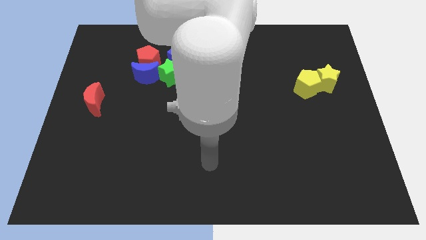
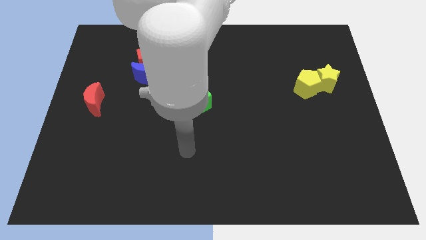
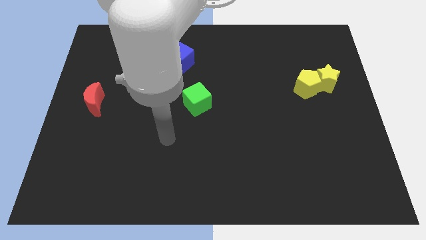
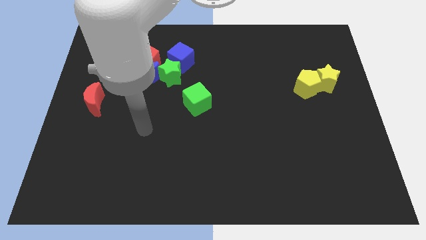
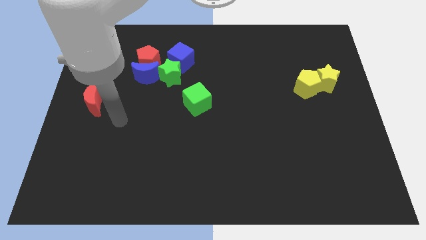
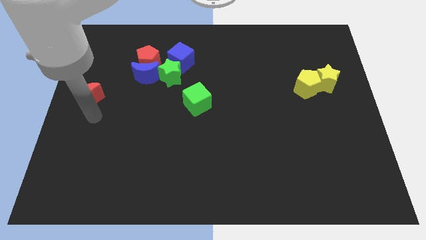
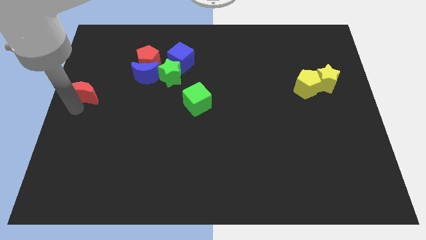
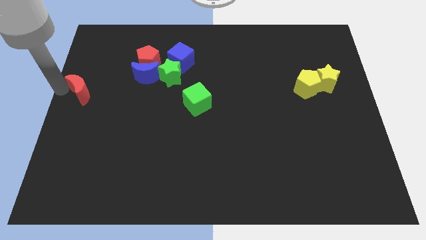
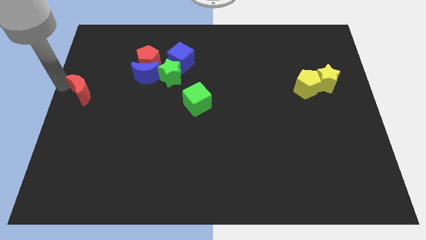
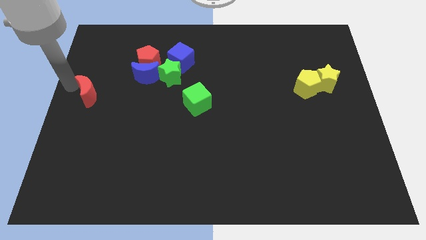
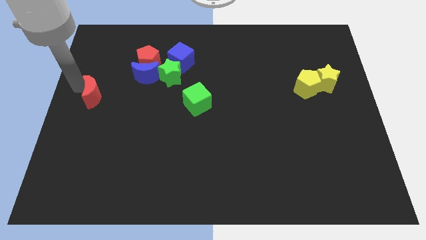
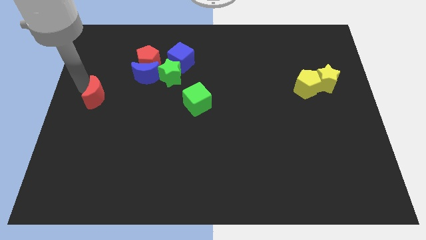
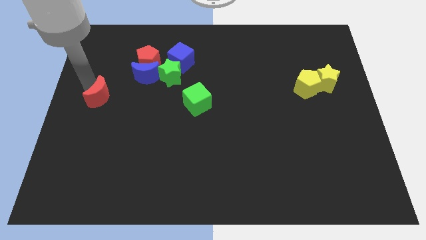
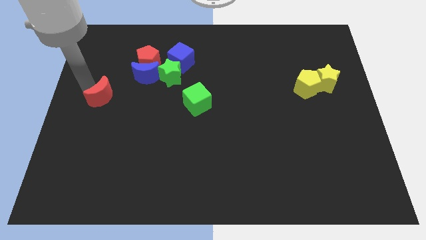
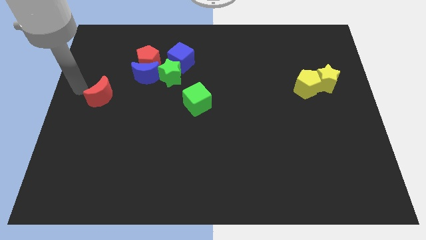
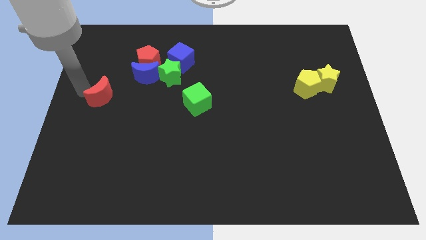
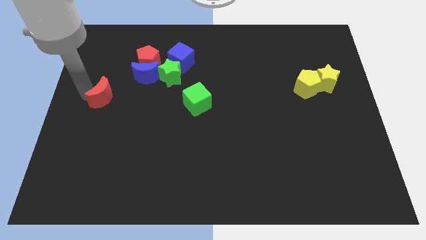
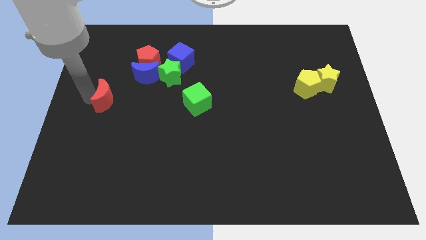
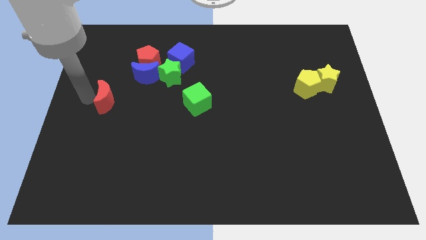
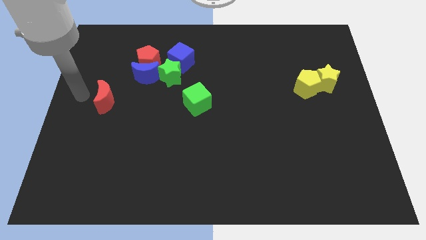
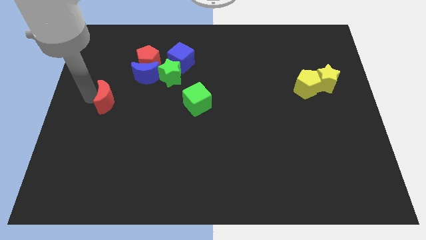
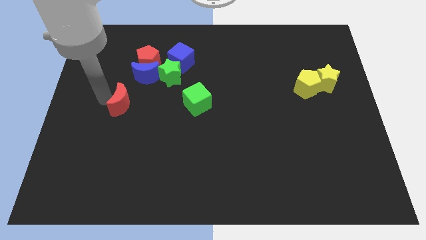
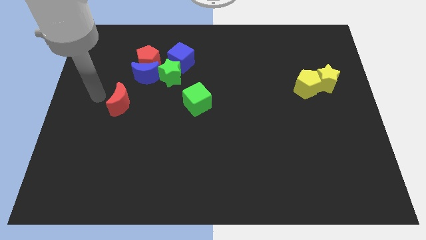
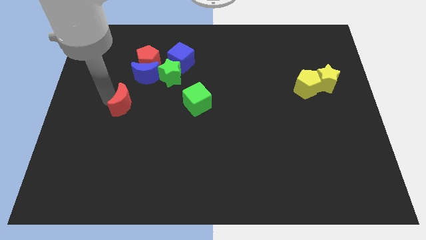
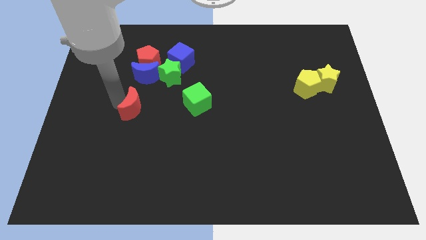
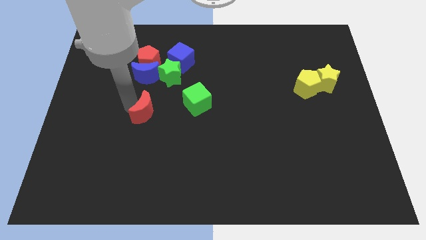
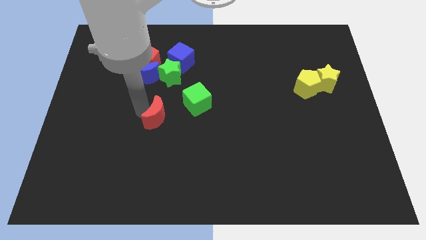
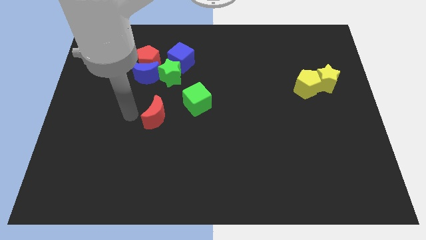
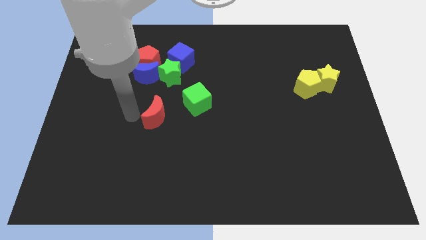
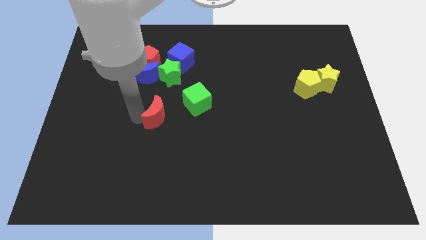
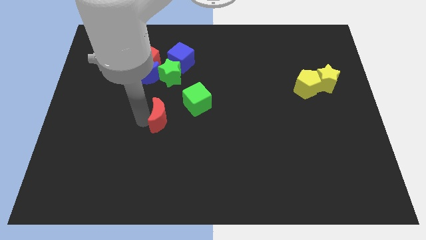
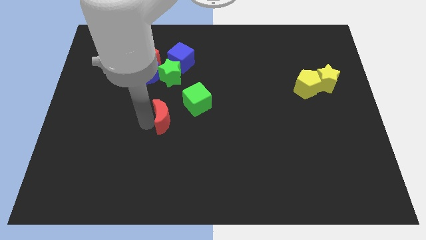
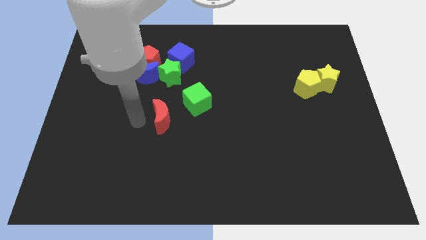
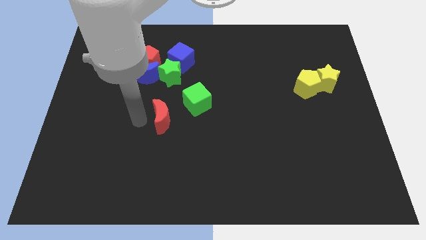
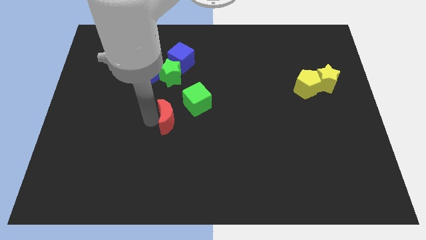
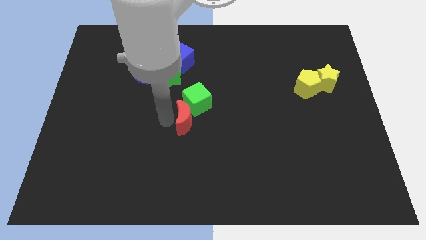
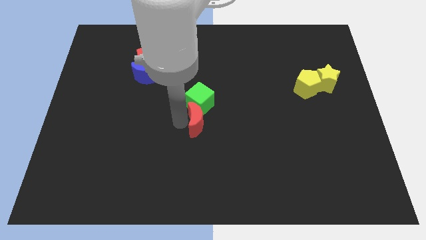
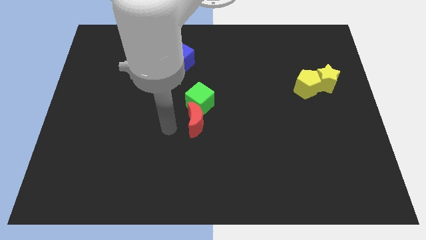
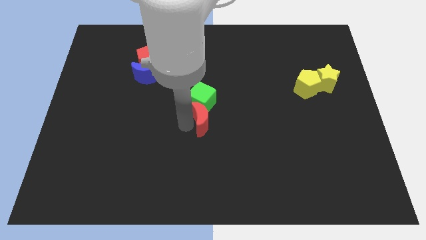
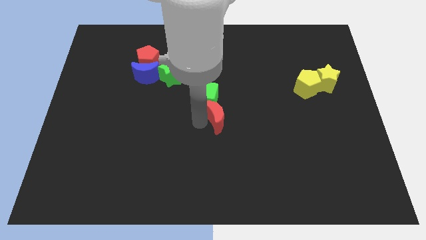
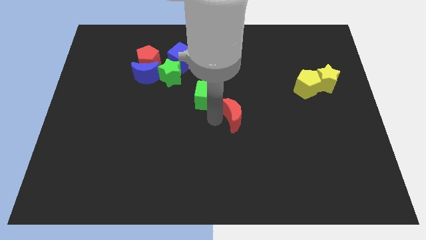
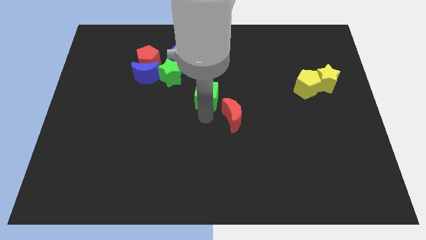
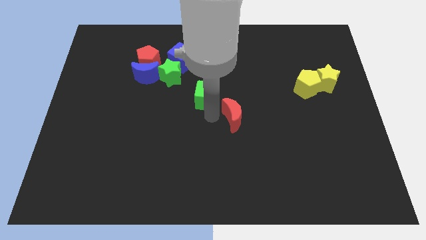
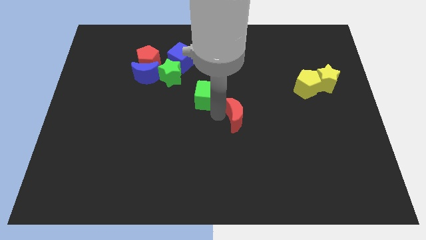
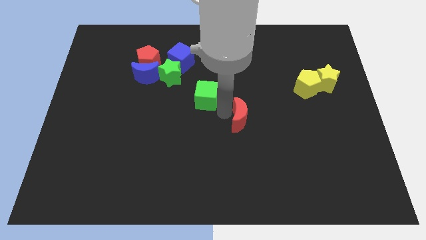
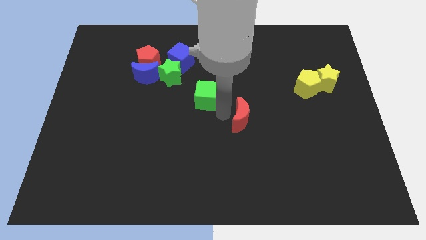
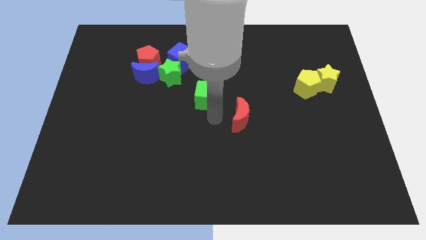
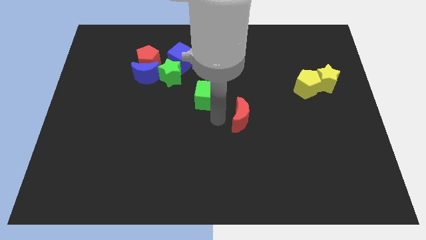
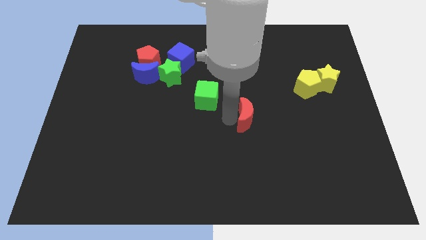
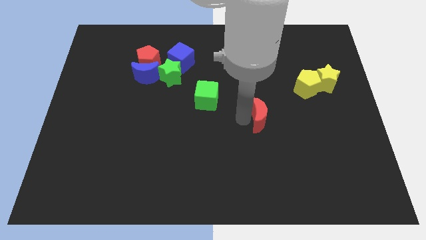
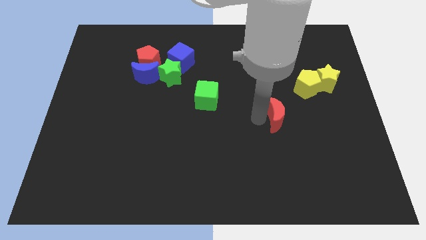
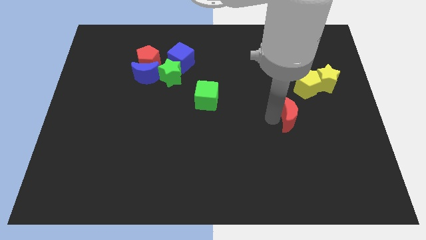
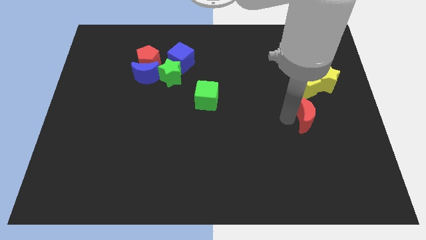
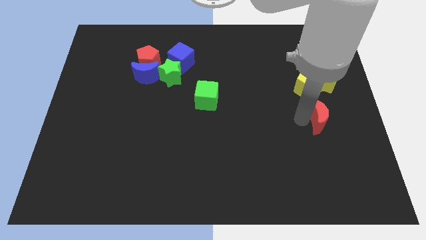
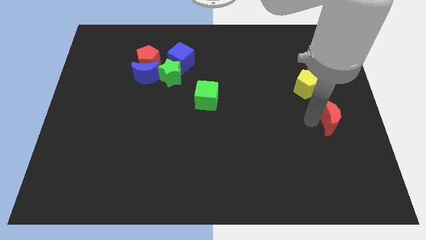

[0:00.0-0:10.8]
move the red moon to the center right

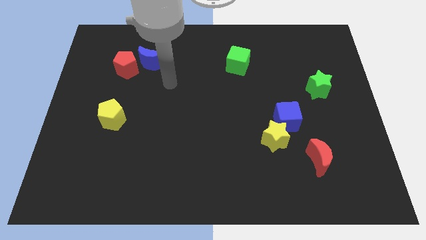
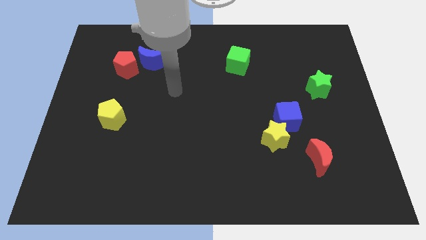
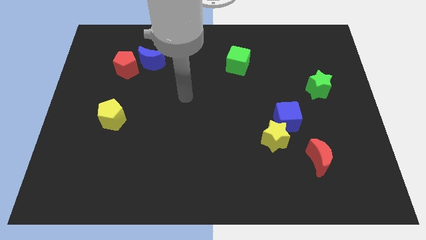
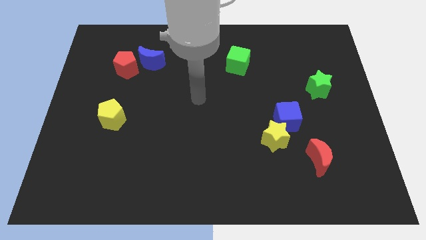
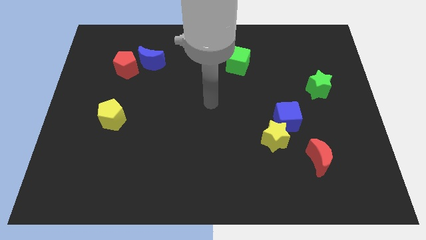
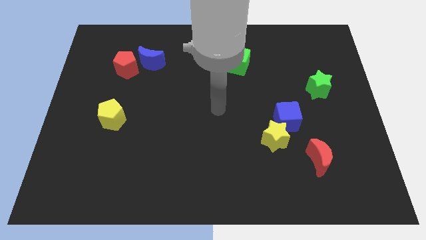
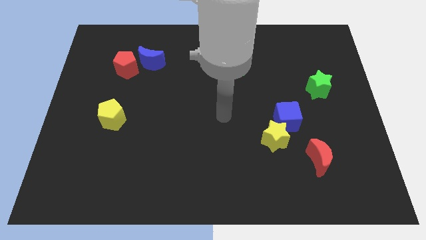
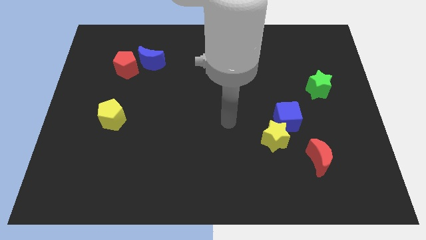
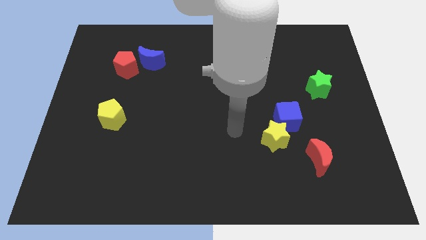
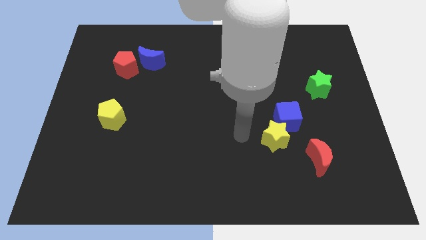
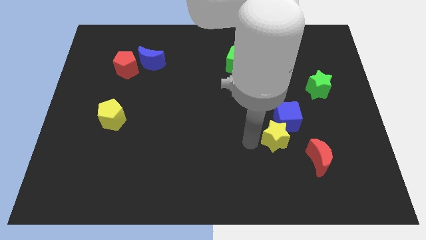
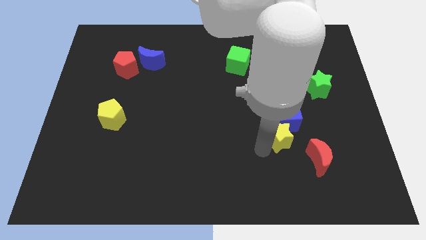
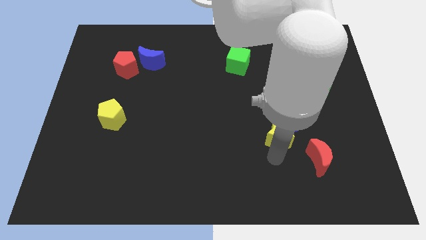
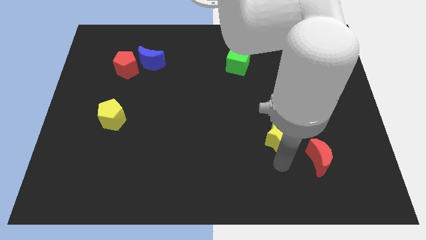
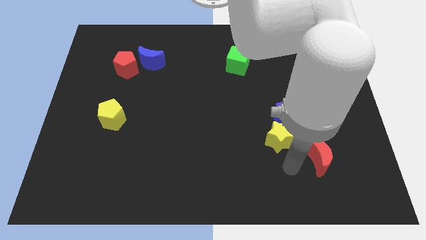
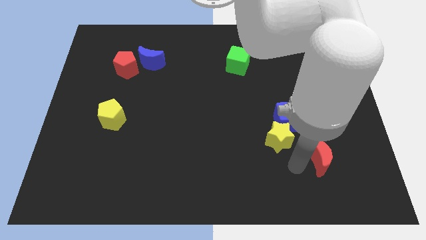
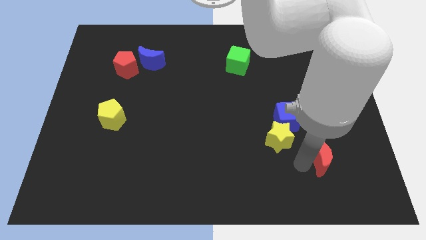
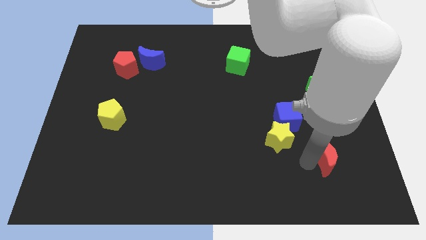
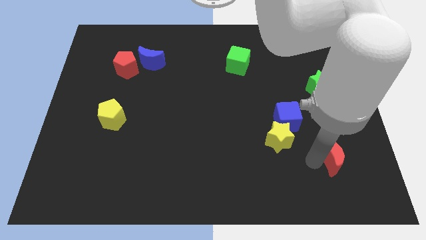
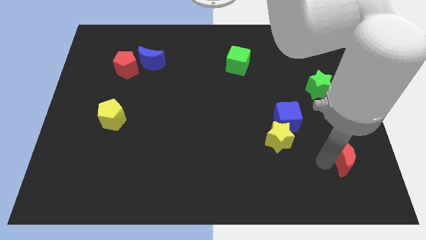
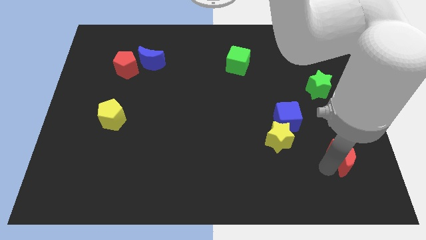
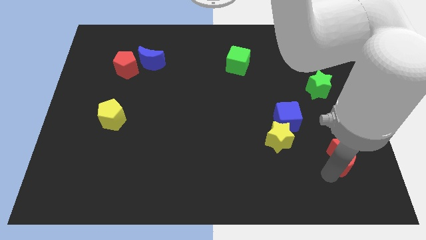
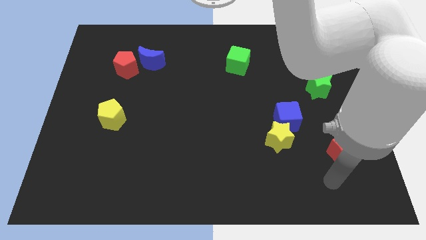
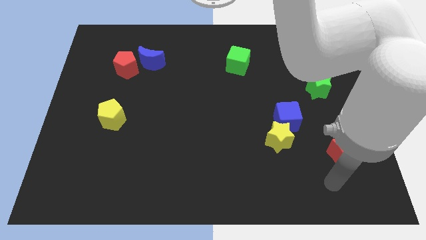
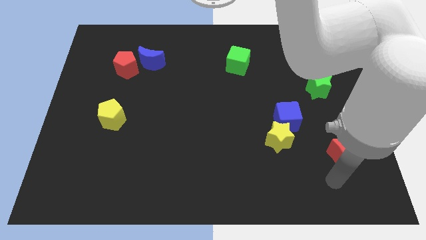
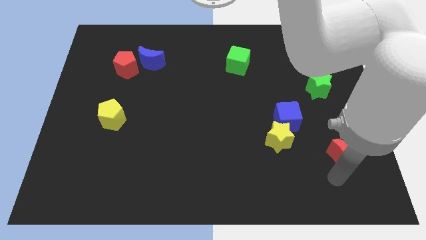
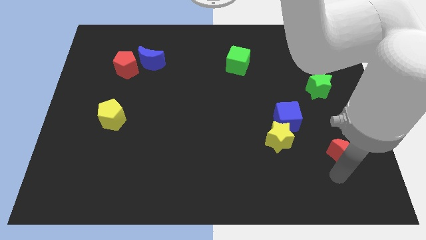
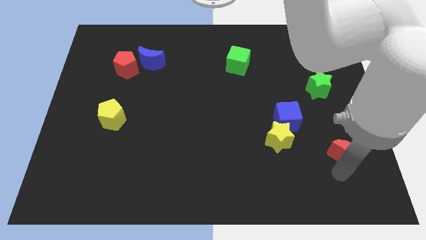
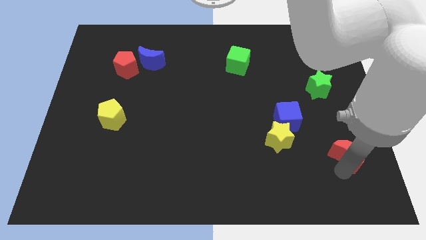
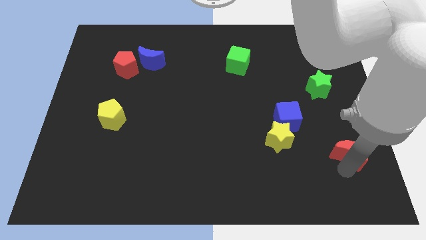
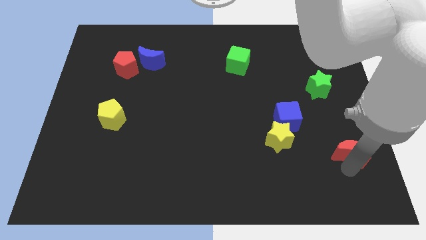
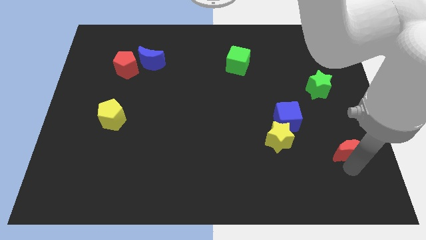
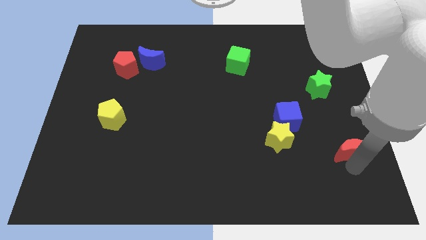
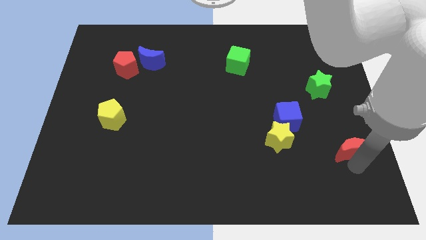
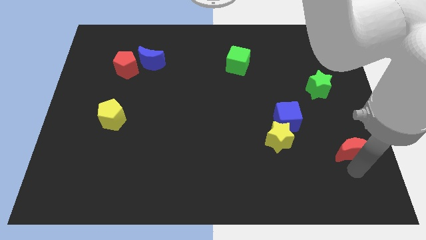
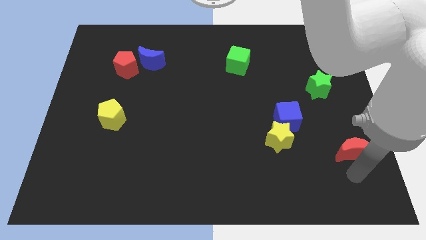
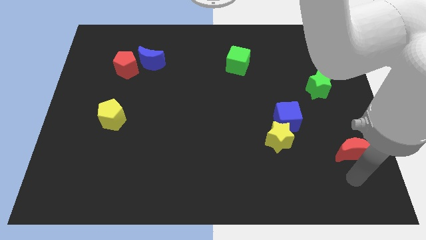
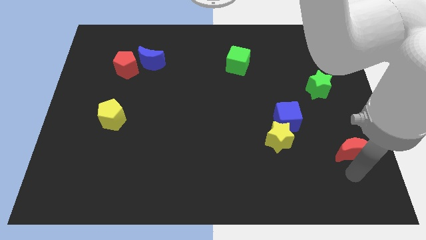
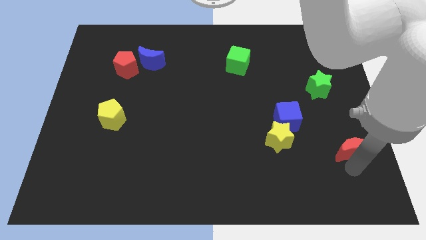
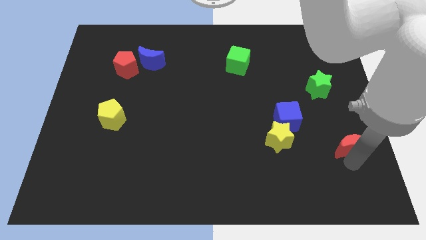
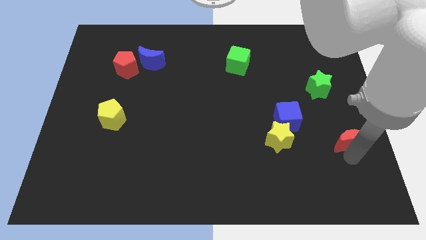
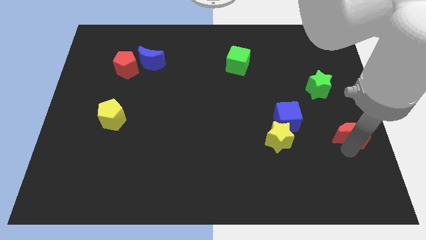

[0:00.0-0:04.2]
push the red moon to the right side
